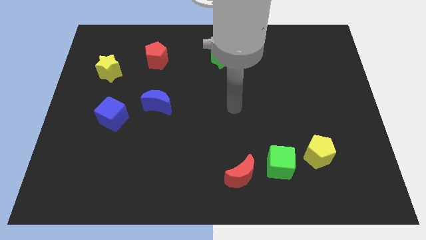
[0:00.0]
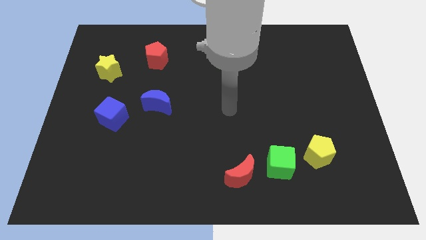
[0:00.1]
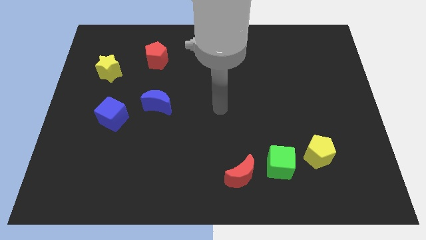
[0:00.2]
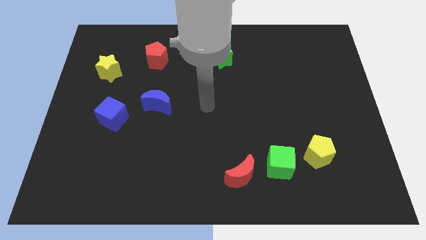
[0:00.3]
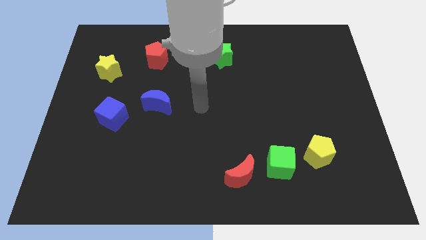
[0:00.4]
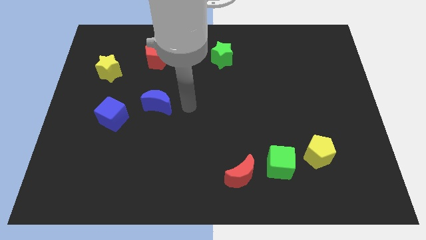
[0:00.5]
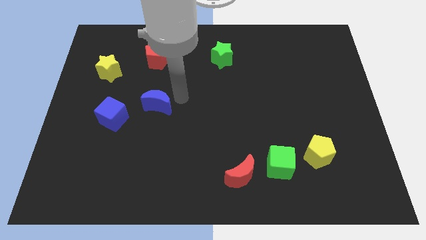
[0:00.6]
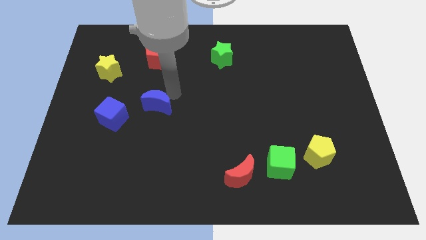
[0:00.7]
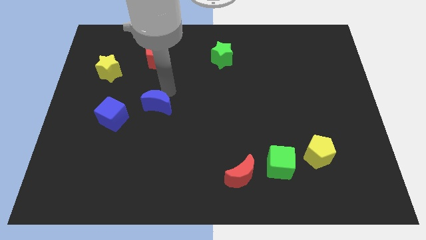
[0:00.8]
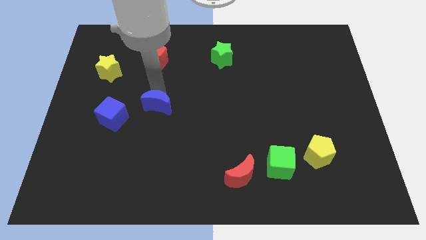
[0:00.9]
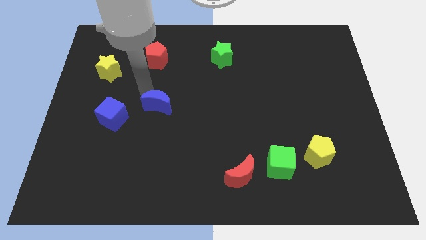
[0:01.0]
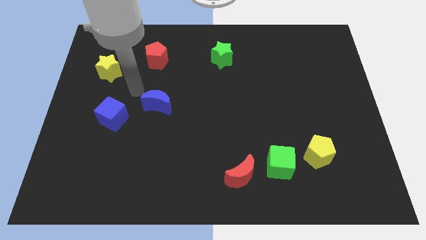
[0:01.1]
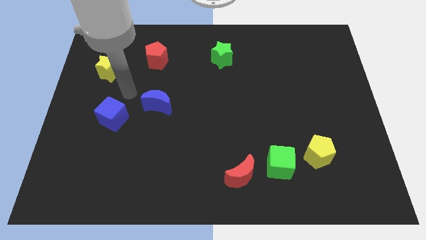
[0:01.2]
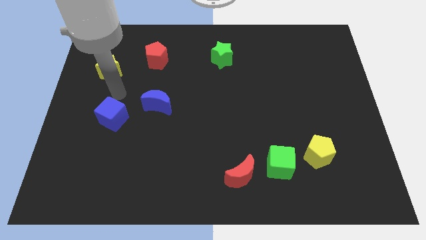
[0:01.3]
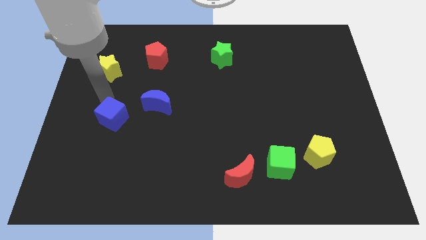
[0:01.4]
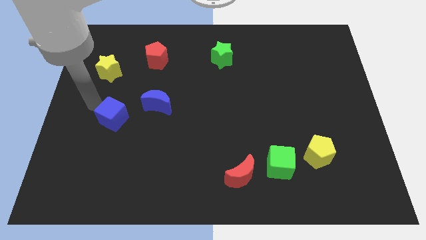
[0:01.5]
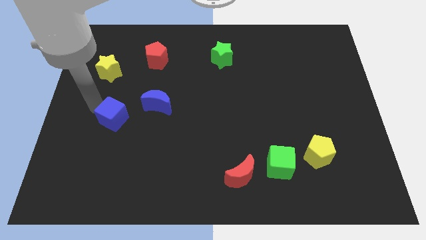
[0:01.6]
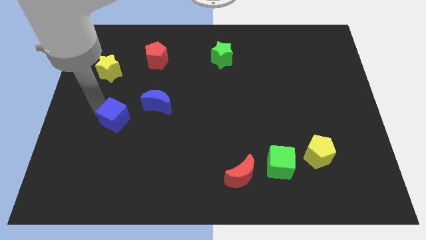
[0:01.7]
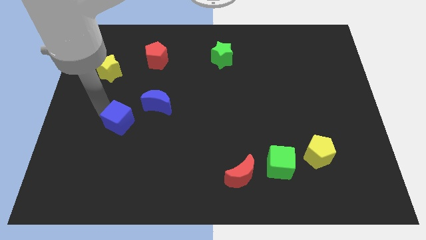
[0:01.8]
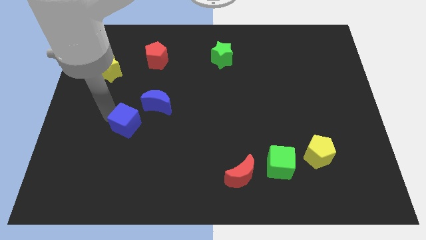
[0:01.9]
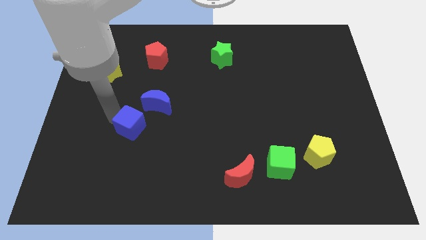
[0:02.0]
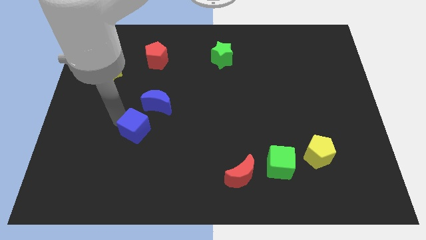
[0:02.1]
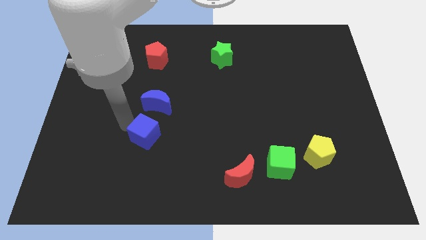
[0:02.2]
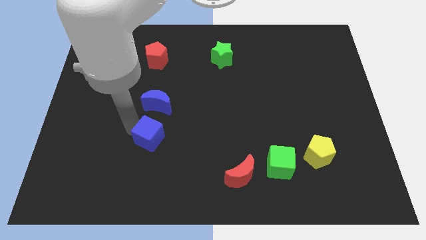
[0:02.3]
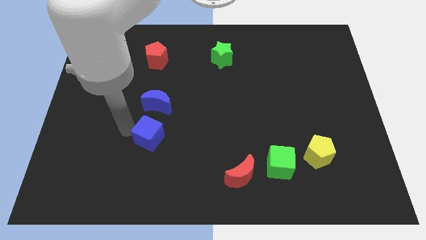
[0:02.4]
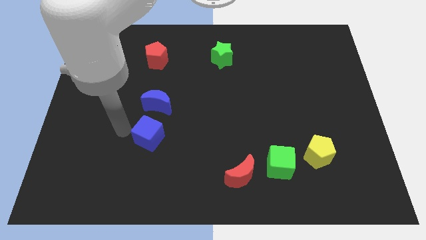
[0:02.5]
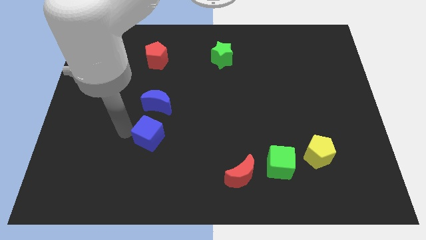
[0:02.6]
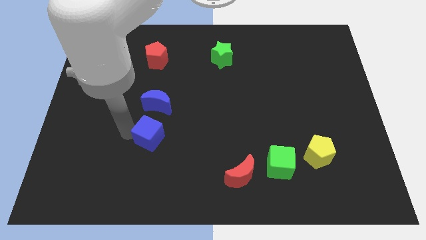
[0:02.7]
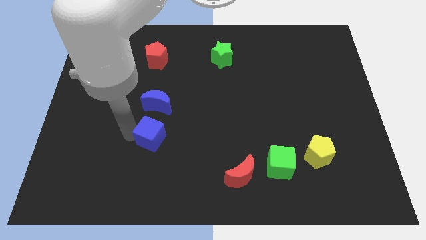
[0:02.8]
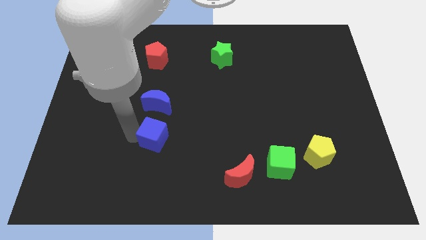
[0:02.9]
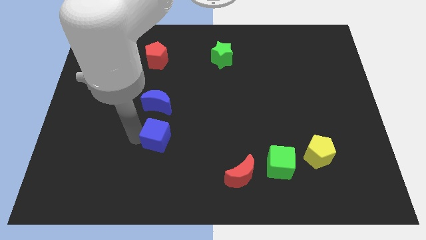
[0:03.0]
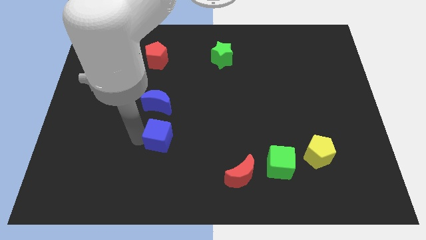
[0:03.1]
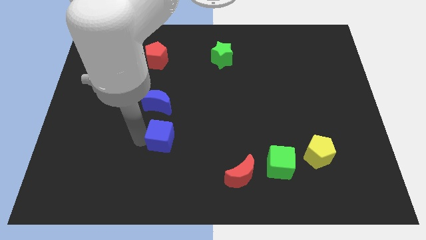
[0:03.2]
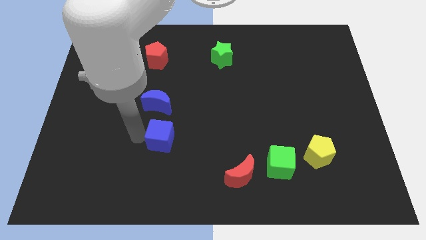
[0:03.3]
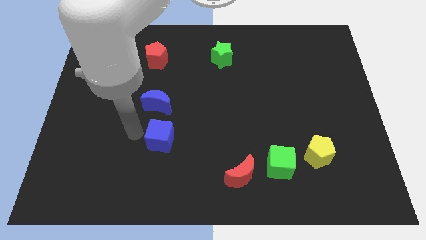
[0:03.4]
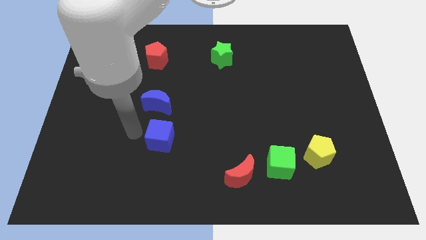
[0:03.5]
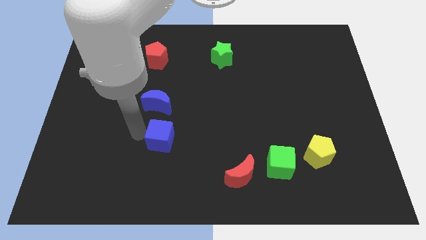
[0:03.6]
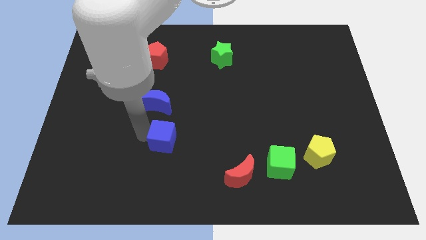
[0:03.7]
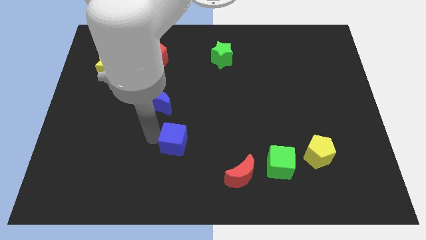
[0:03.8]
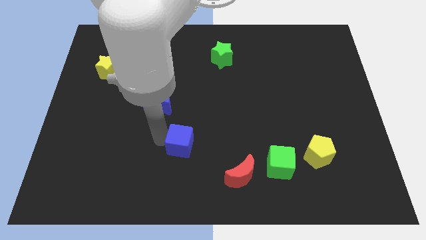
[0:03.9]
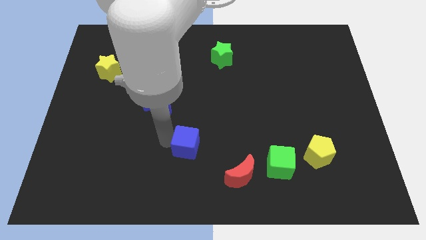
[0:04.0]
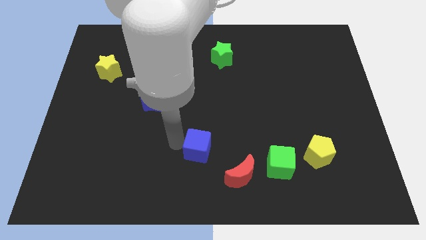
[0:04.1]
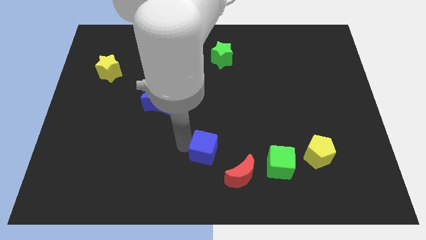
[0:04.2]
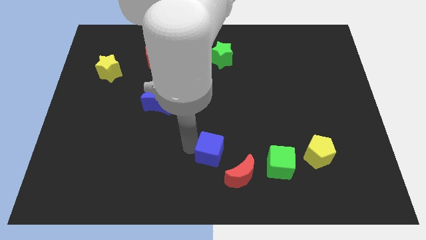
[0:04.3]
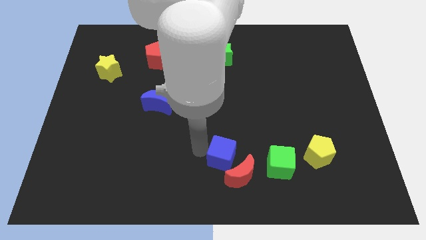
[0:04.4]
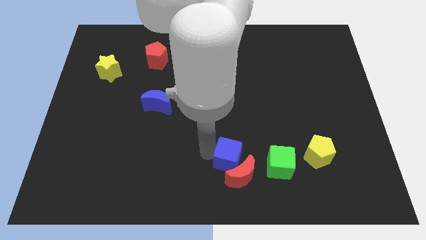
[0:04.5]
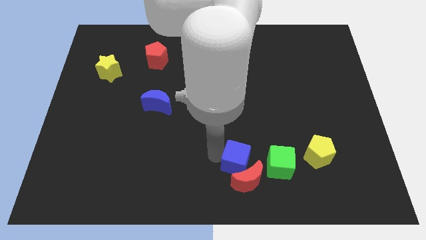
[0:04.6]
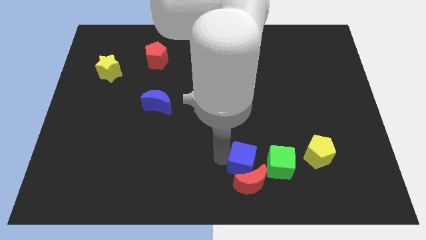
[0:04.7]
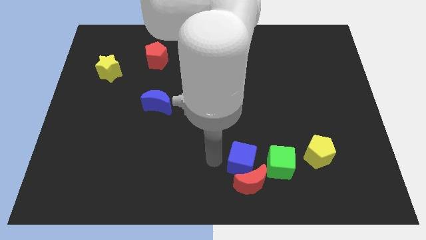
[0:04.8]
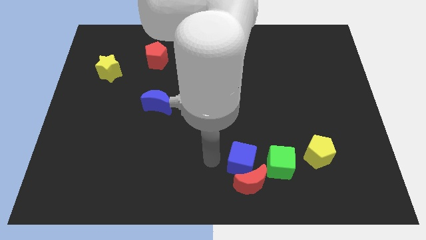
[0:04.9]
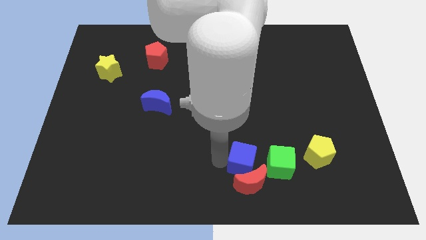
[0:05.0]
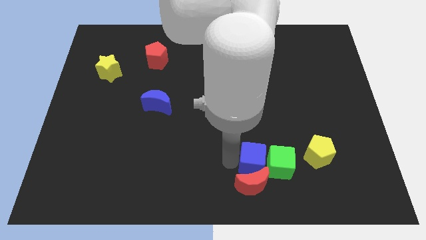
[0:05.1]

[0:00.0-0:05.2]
push the blue cube next to the green cube

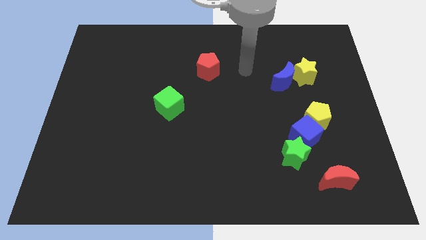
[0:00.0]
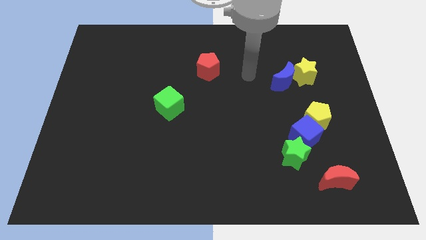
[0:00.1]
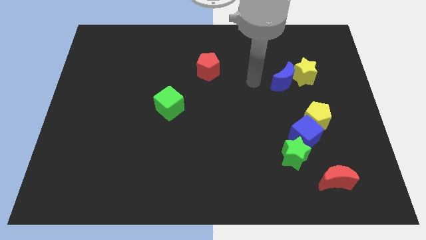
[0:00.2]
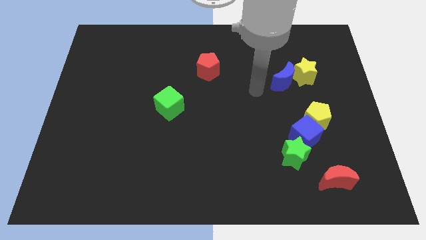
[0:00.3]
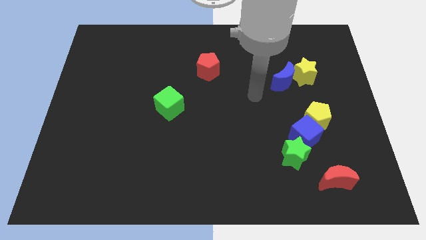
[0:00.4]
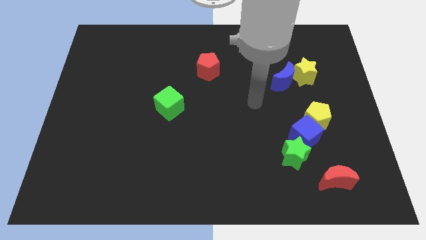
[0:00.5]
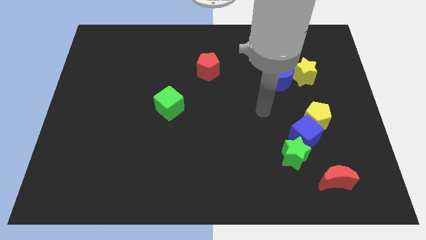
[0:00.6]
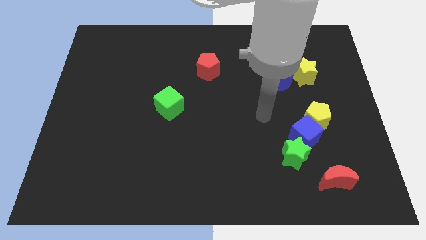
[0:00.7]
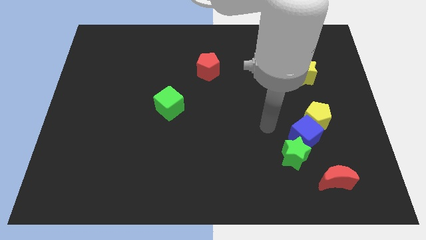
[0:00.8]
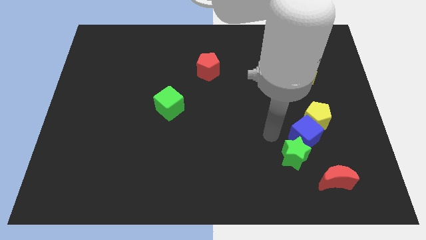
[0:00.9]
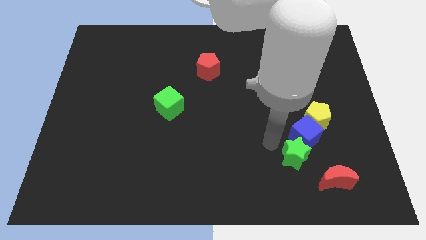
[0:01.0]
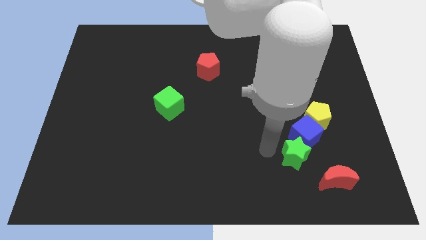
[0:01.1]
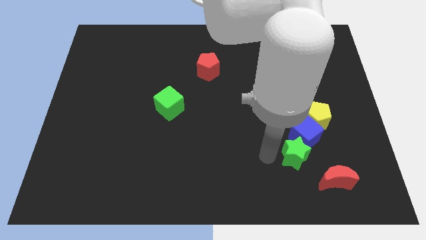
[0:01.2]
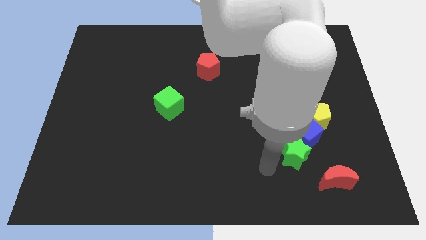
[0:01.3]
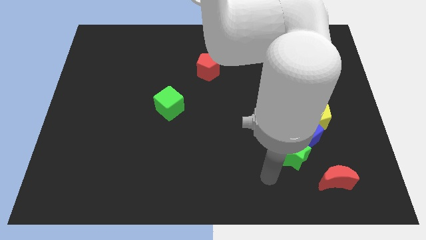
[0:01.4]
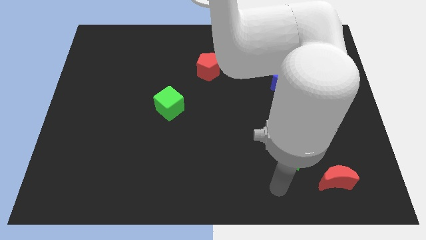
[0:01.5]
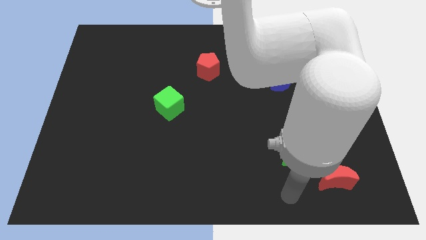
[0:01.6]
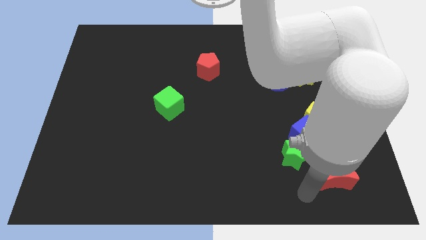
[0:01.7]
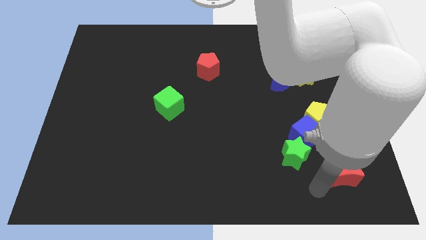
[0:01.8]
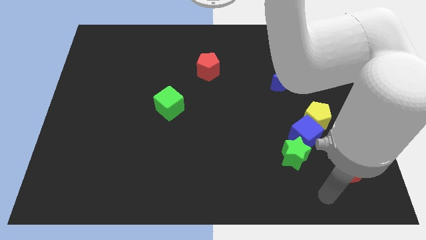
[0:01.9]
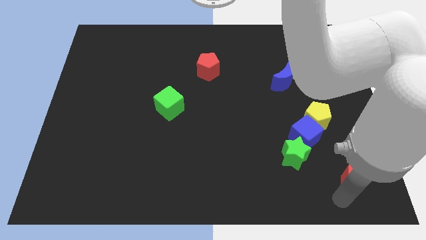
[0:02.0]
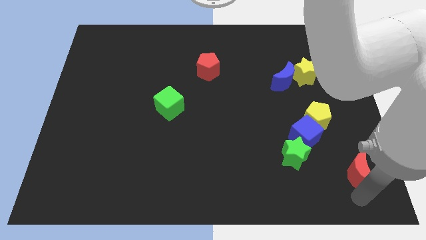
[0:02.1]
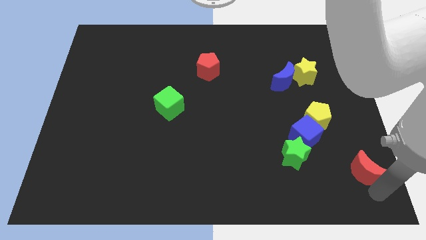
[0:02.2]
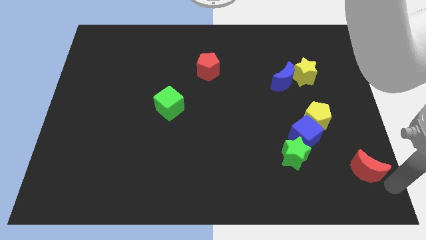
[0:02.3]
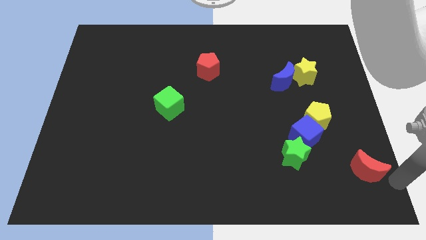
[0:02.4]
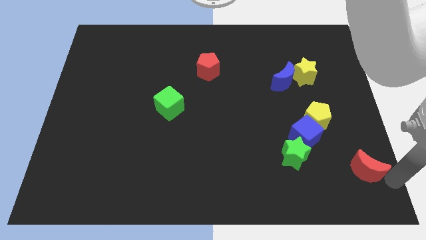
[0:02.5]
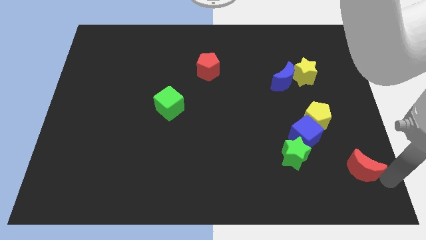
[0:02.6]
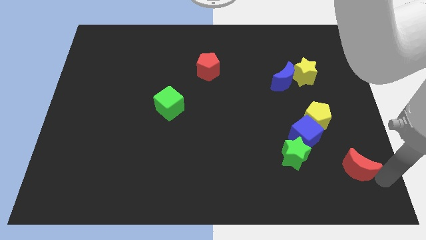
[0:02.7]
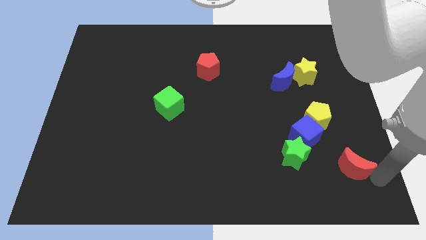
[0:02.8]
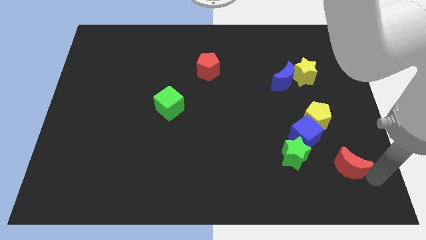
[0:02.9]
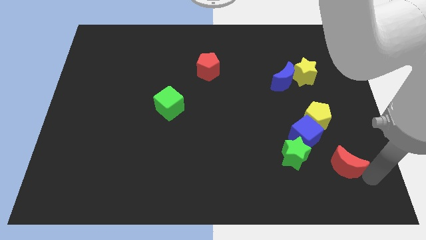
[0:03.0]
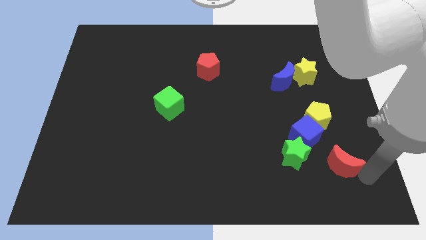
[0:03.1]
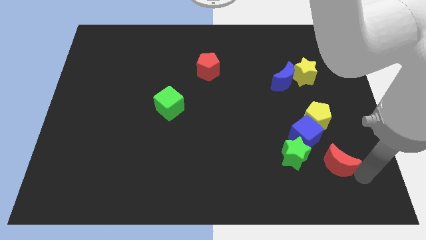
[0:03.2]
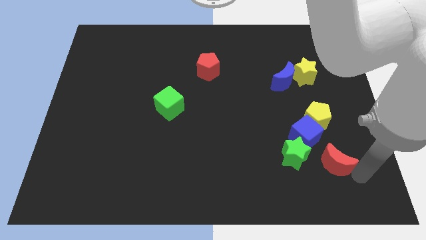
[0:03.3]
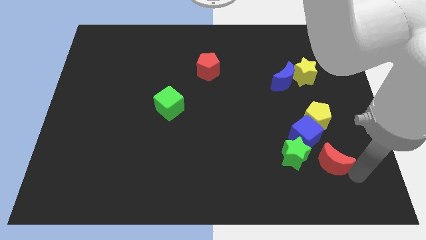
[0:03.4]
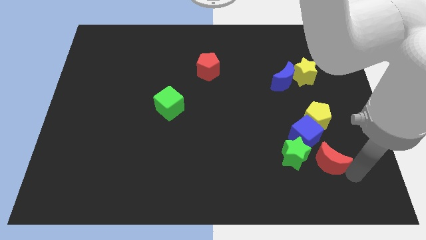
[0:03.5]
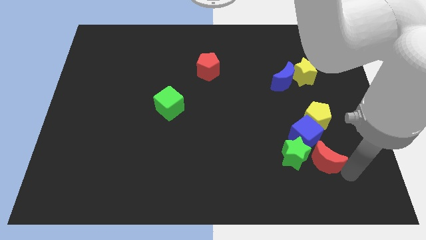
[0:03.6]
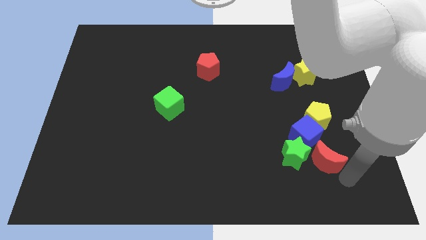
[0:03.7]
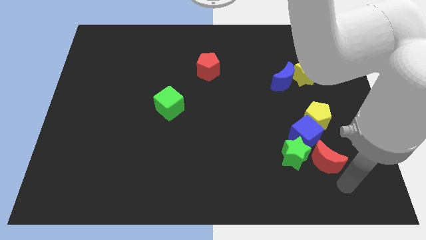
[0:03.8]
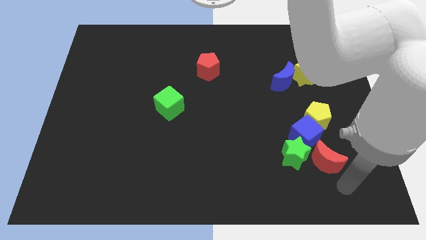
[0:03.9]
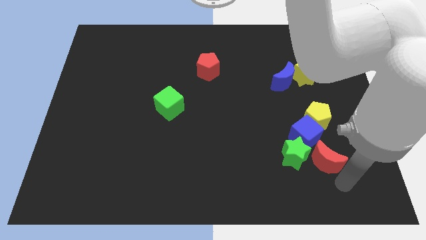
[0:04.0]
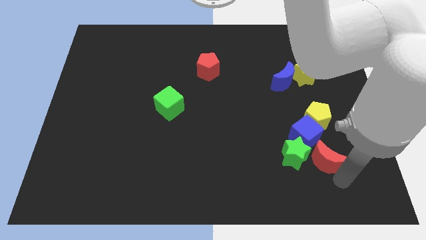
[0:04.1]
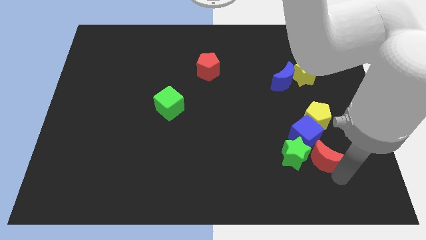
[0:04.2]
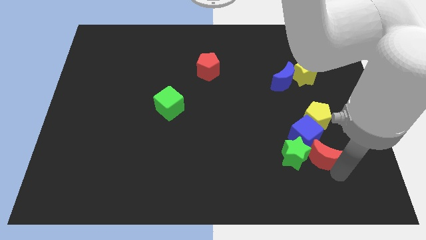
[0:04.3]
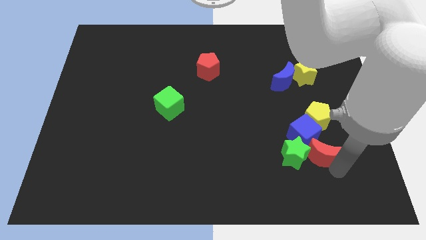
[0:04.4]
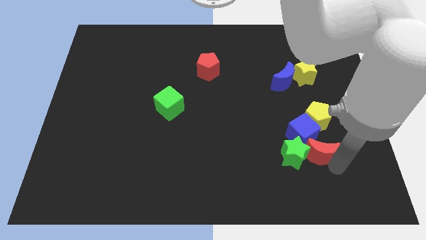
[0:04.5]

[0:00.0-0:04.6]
slide the red moon towards the blue cube
